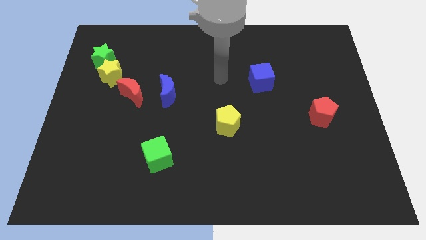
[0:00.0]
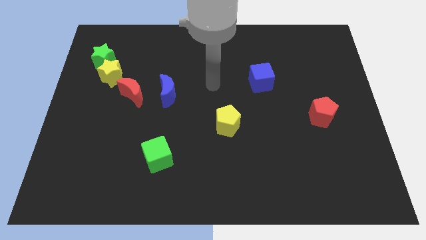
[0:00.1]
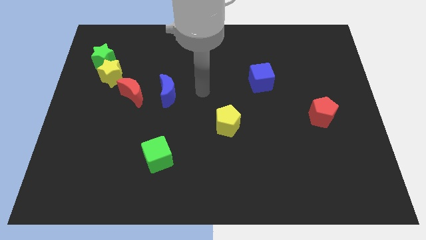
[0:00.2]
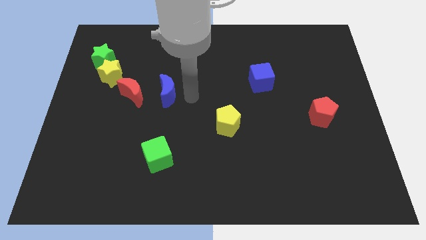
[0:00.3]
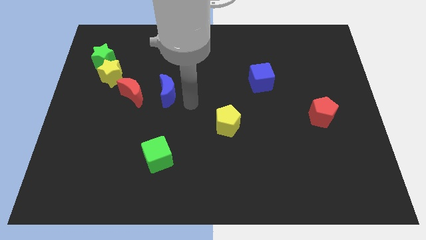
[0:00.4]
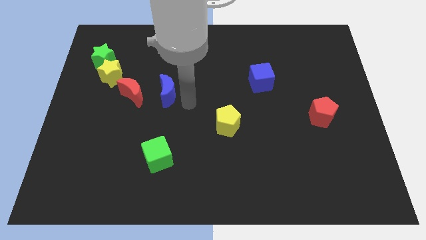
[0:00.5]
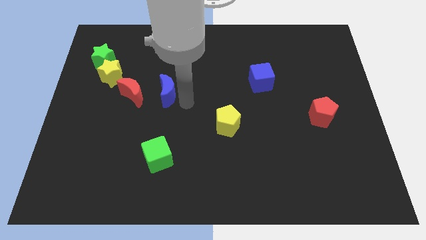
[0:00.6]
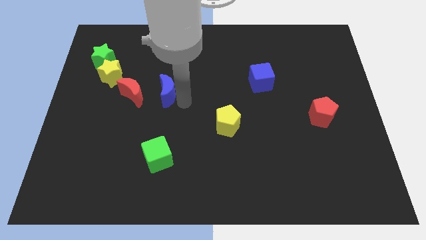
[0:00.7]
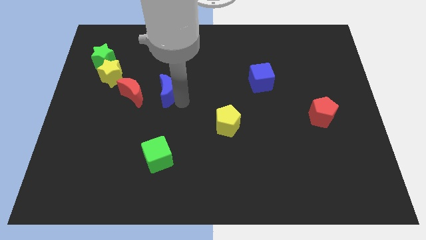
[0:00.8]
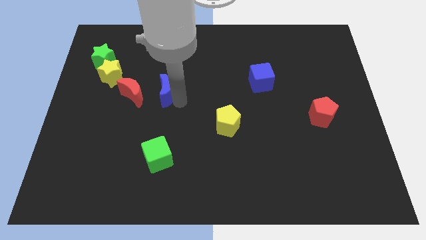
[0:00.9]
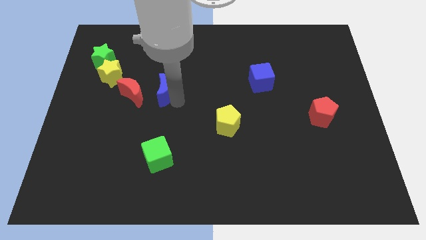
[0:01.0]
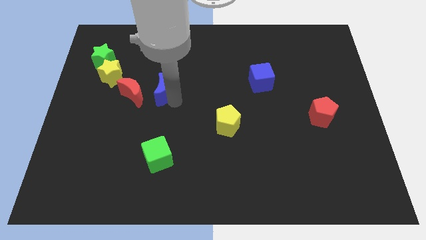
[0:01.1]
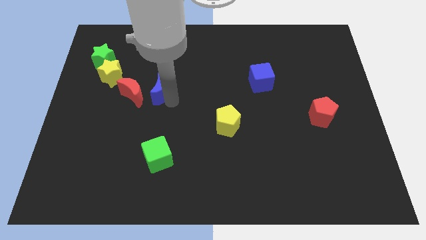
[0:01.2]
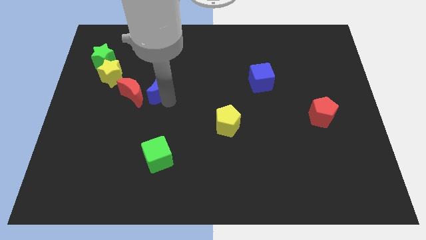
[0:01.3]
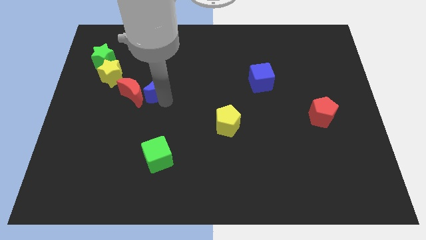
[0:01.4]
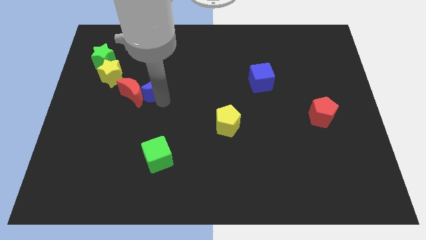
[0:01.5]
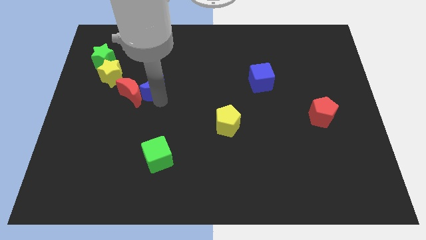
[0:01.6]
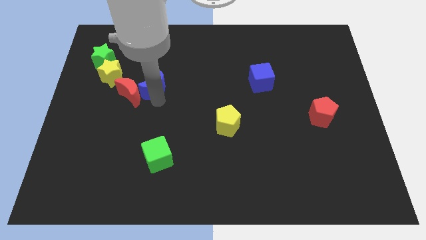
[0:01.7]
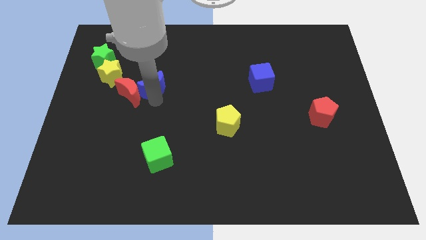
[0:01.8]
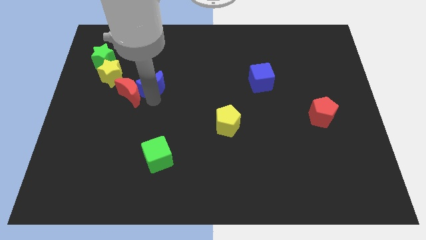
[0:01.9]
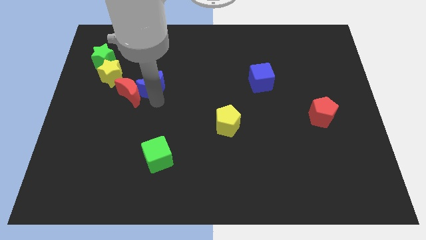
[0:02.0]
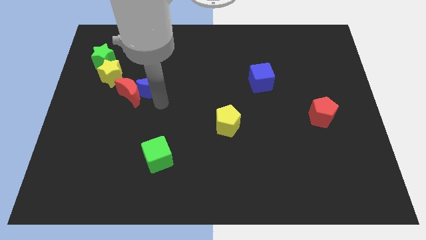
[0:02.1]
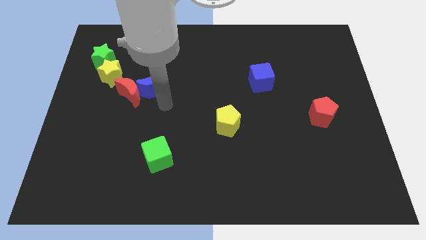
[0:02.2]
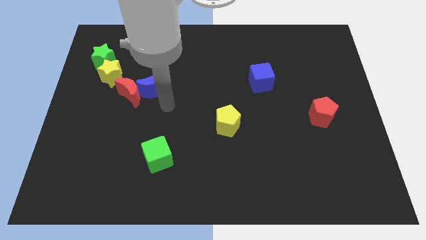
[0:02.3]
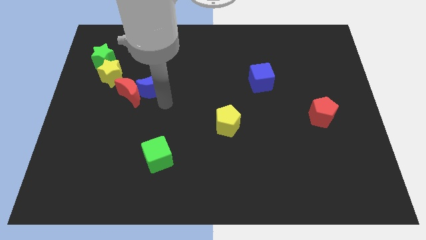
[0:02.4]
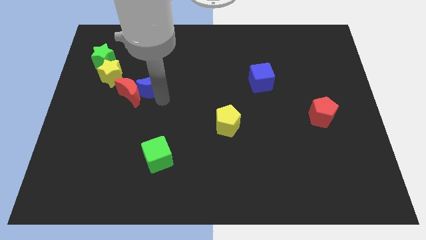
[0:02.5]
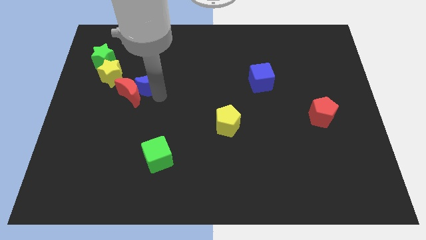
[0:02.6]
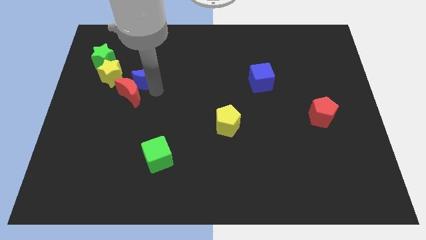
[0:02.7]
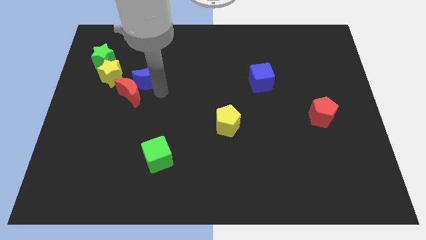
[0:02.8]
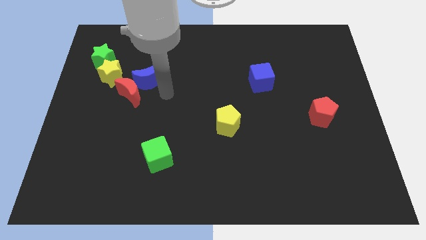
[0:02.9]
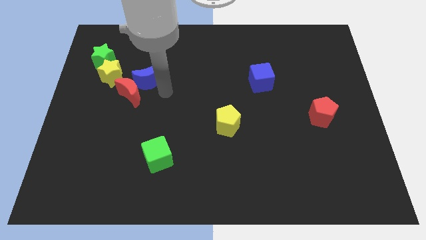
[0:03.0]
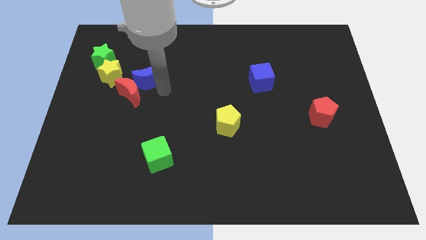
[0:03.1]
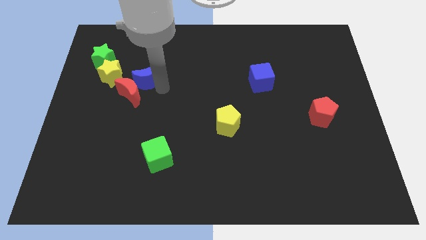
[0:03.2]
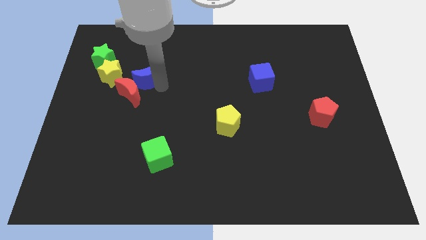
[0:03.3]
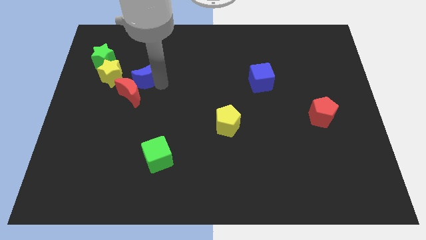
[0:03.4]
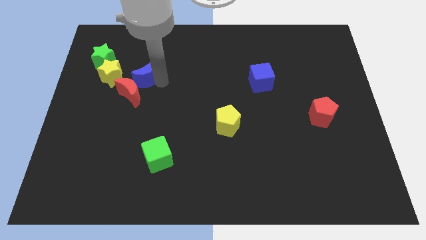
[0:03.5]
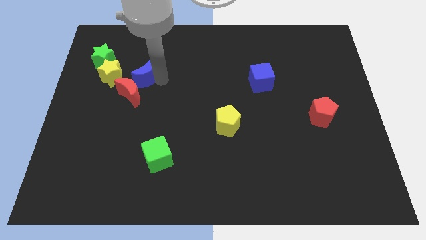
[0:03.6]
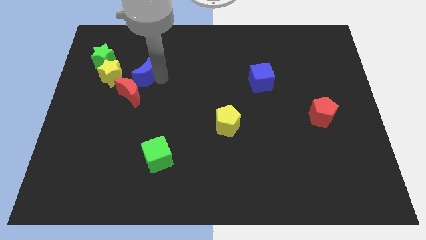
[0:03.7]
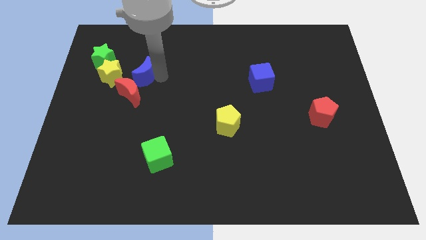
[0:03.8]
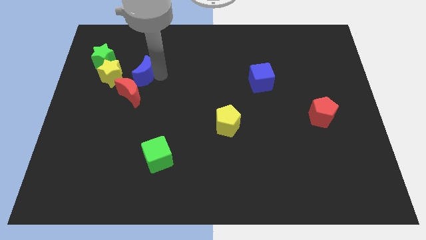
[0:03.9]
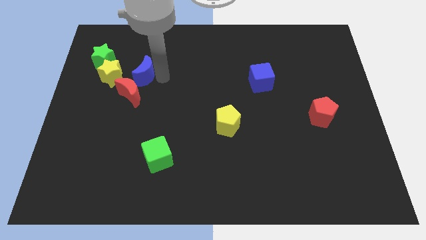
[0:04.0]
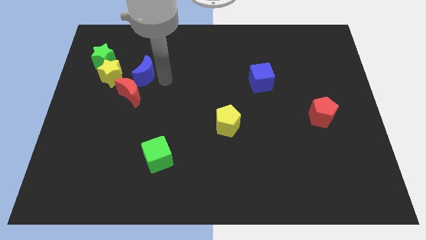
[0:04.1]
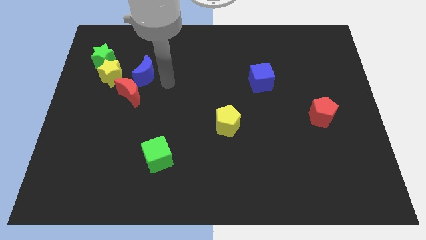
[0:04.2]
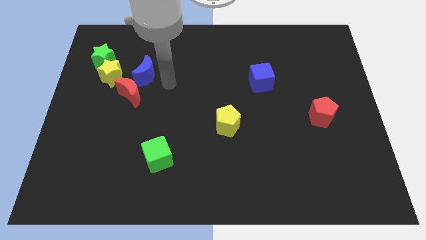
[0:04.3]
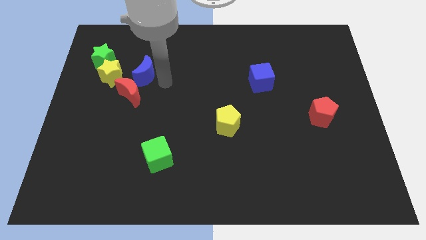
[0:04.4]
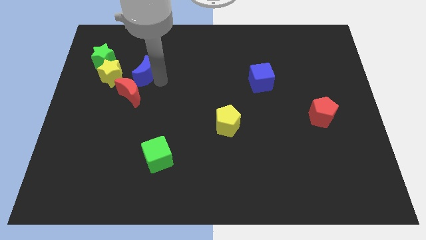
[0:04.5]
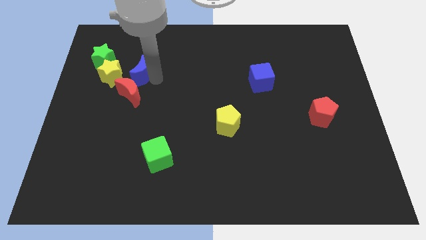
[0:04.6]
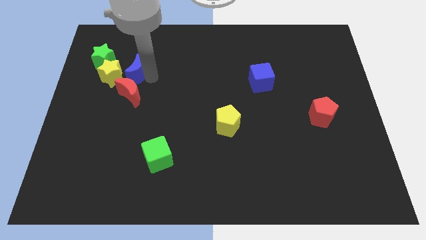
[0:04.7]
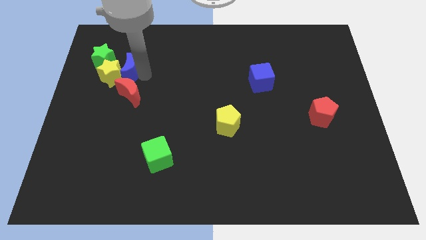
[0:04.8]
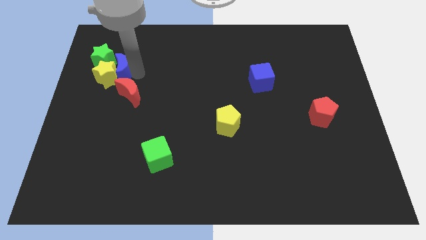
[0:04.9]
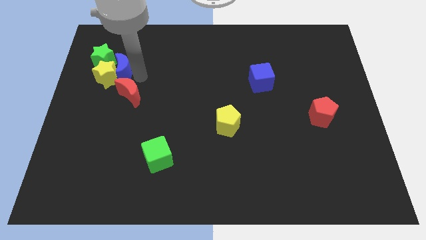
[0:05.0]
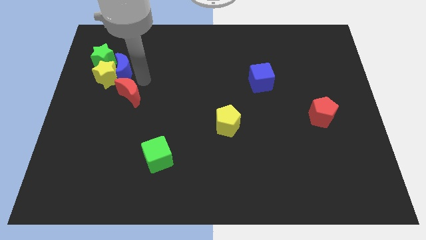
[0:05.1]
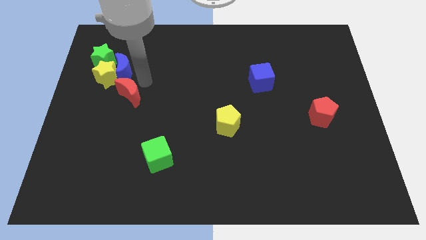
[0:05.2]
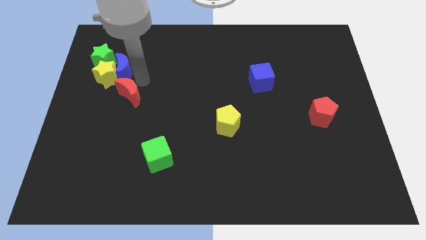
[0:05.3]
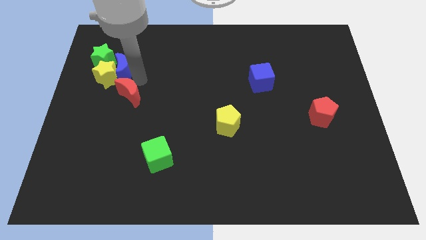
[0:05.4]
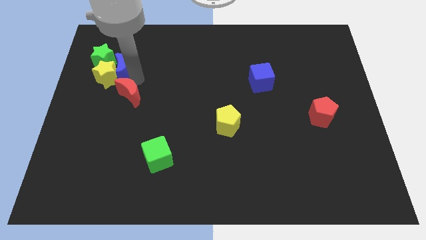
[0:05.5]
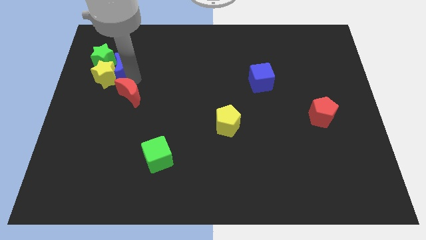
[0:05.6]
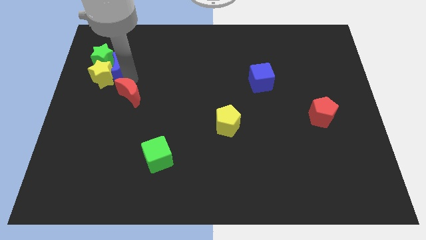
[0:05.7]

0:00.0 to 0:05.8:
put the blue moon next to the green star

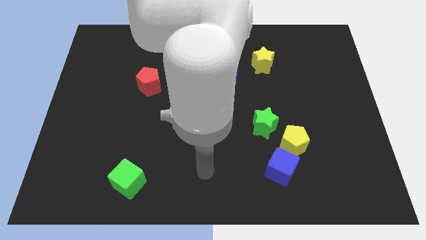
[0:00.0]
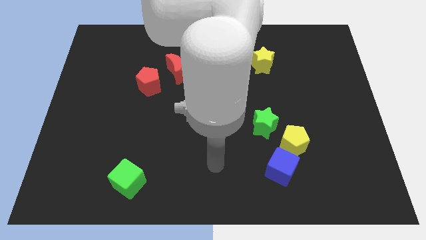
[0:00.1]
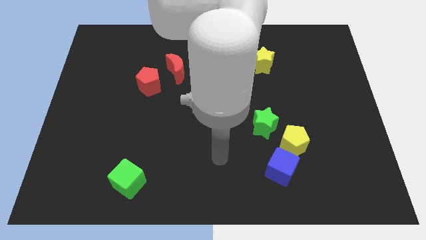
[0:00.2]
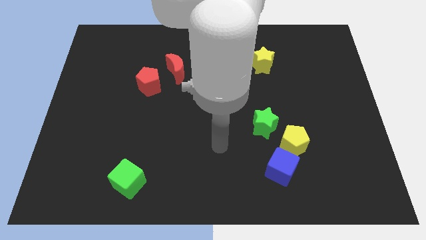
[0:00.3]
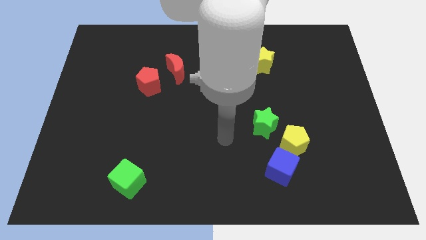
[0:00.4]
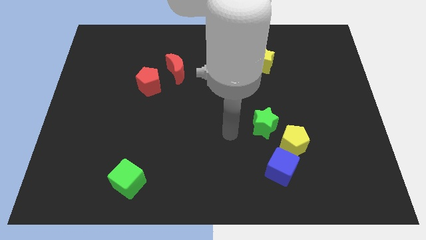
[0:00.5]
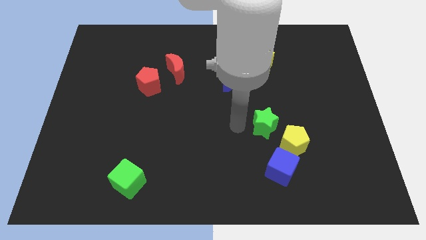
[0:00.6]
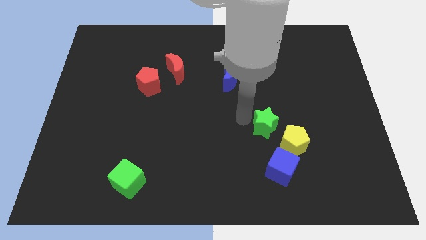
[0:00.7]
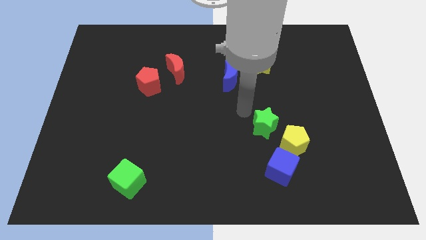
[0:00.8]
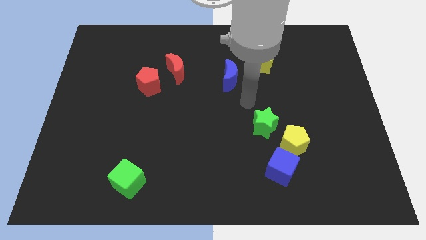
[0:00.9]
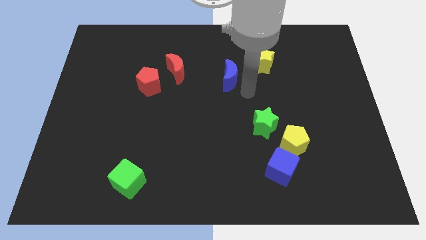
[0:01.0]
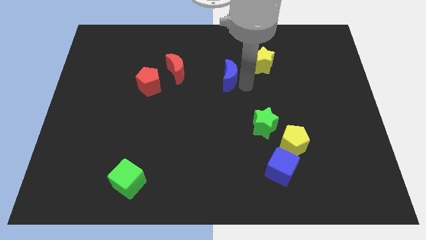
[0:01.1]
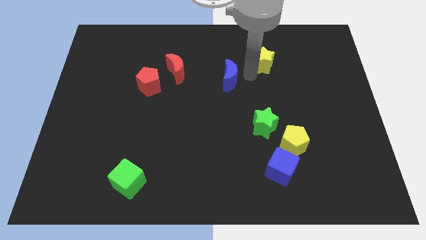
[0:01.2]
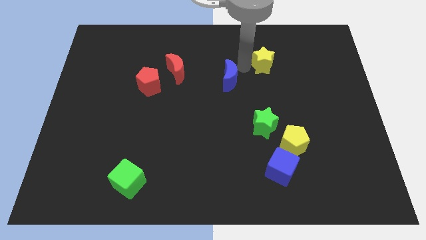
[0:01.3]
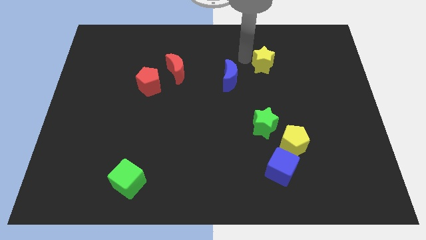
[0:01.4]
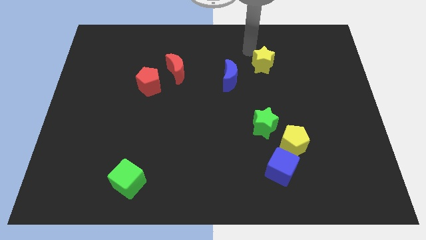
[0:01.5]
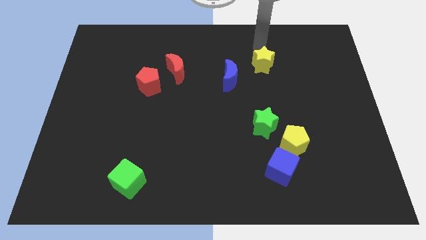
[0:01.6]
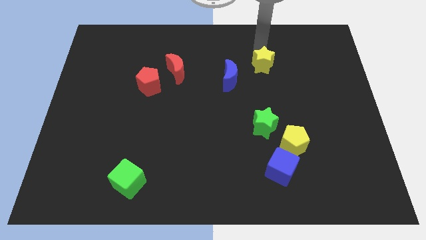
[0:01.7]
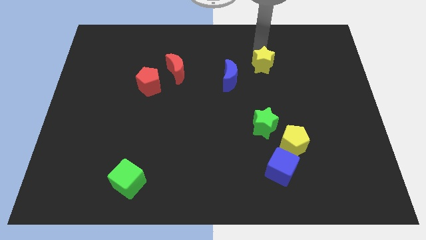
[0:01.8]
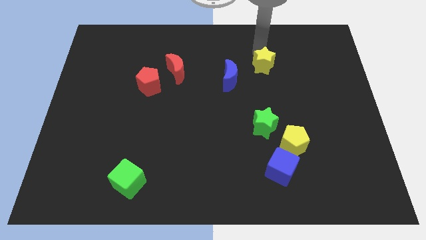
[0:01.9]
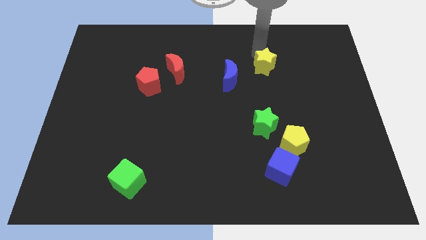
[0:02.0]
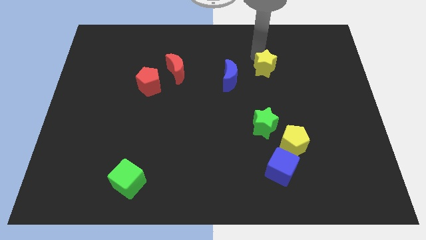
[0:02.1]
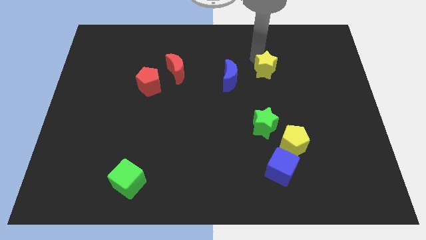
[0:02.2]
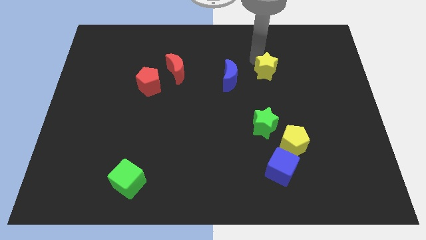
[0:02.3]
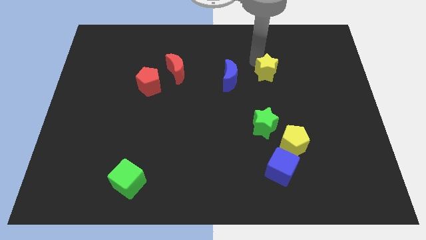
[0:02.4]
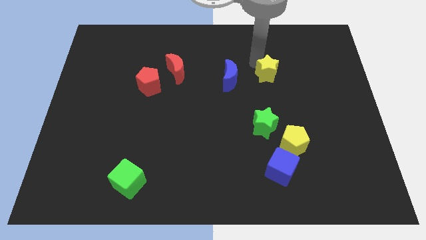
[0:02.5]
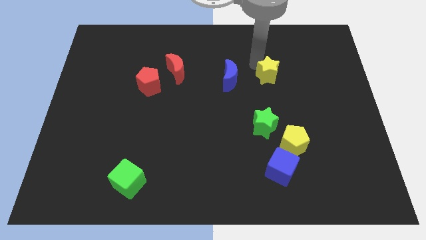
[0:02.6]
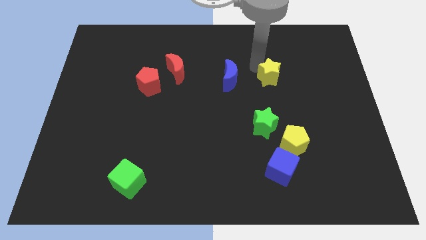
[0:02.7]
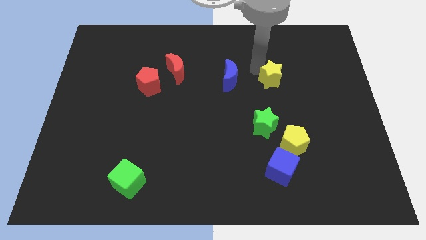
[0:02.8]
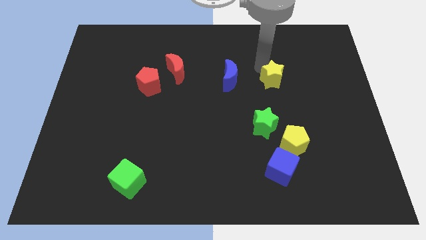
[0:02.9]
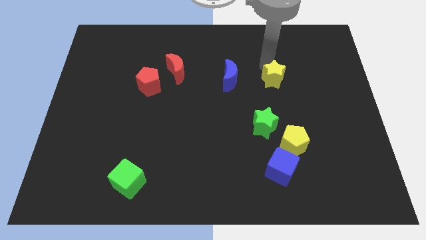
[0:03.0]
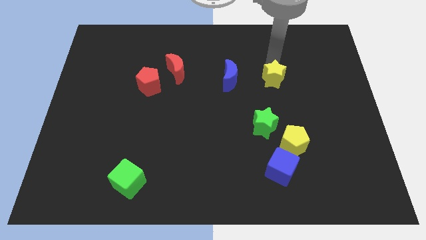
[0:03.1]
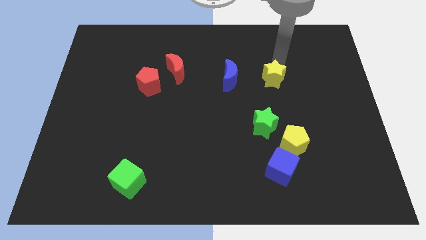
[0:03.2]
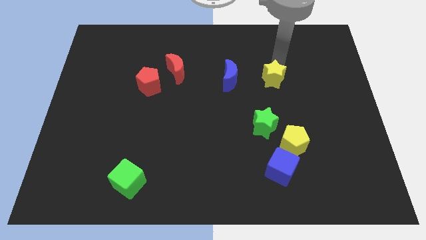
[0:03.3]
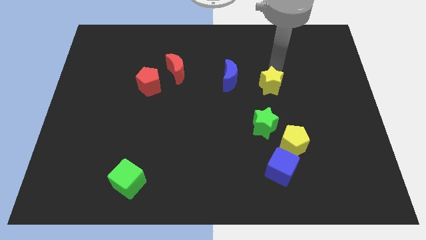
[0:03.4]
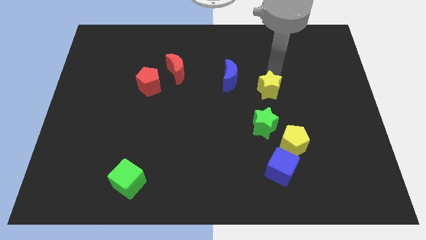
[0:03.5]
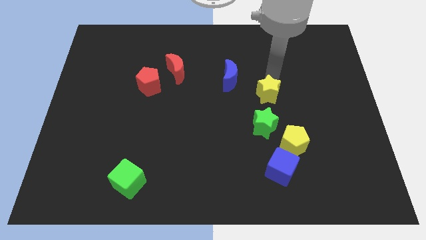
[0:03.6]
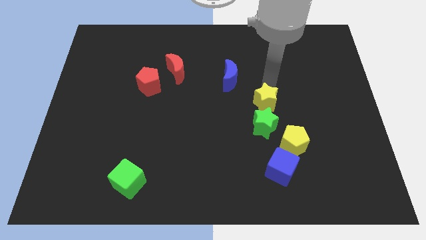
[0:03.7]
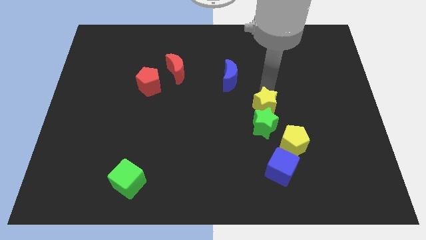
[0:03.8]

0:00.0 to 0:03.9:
push the yellow star towards the green star
